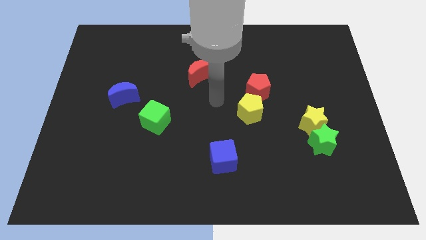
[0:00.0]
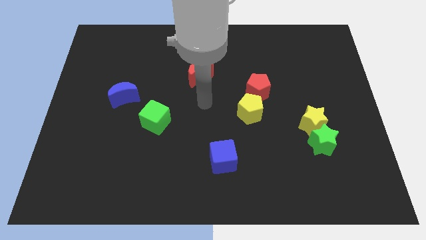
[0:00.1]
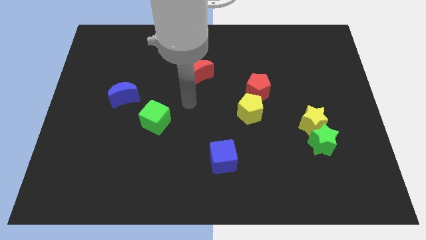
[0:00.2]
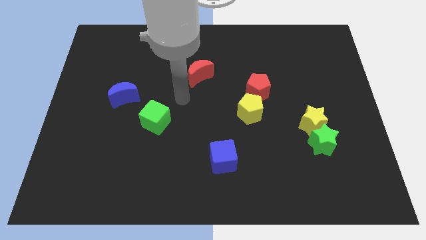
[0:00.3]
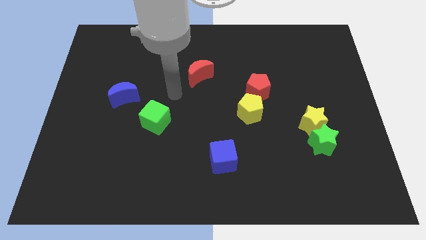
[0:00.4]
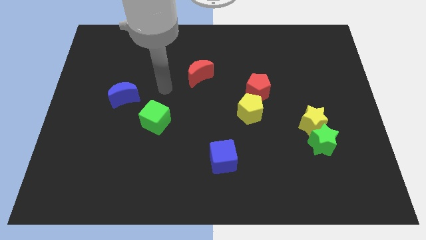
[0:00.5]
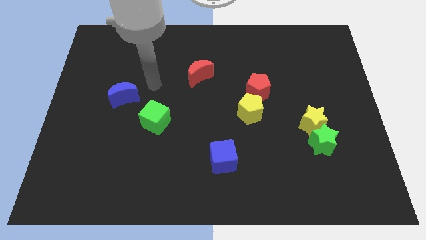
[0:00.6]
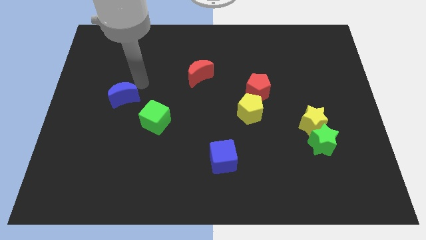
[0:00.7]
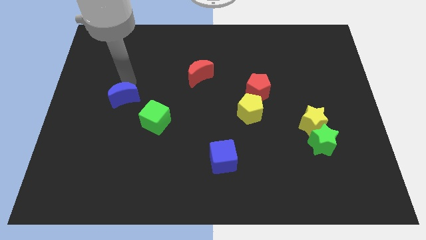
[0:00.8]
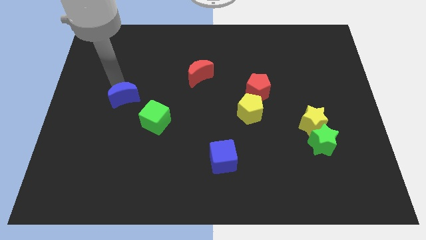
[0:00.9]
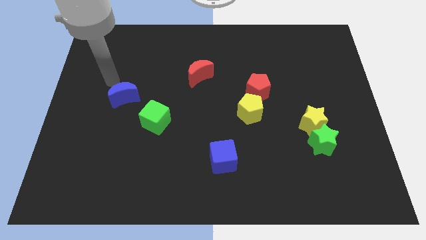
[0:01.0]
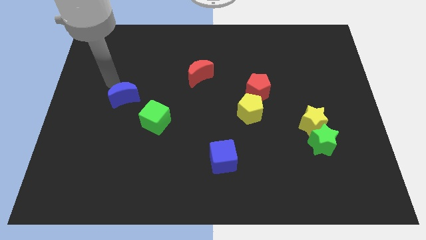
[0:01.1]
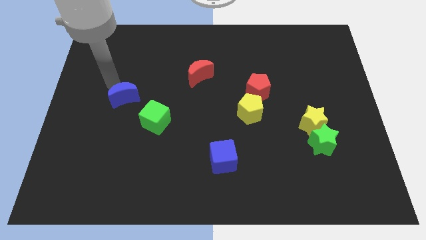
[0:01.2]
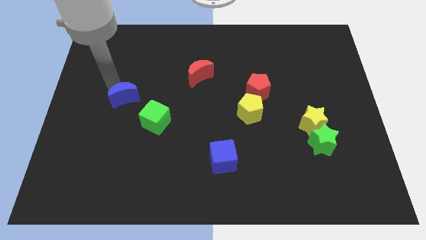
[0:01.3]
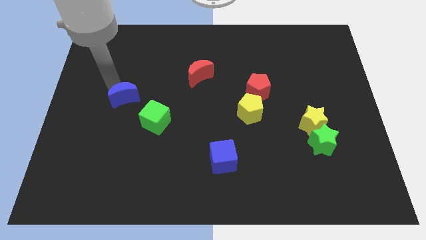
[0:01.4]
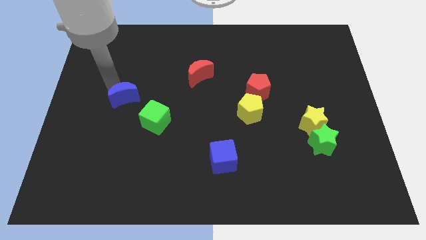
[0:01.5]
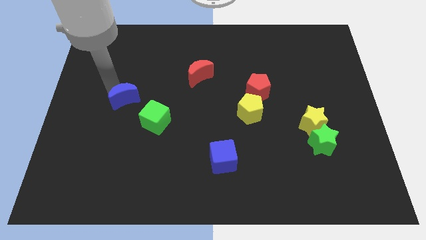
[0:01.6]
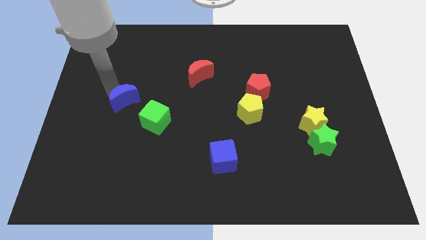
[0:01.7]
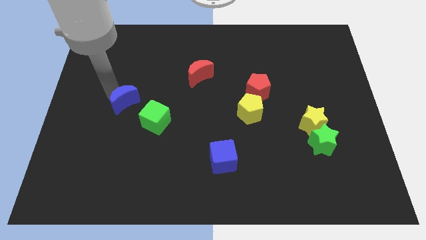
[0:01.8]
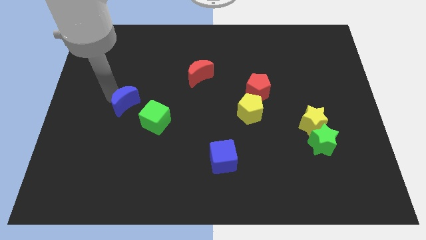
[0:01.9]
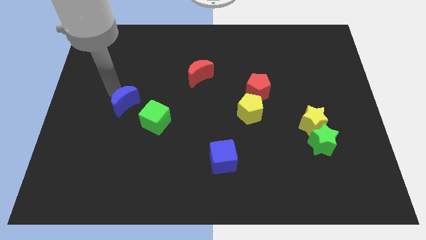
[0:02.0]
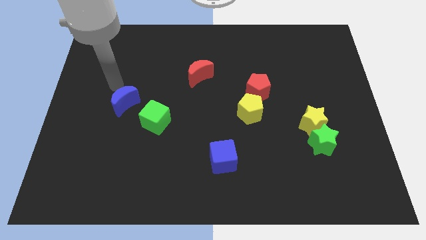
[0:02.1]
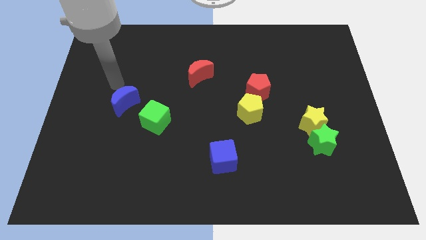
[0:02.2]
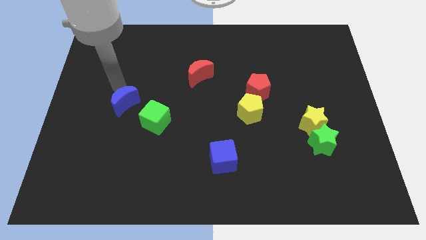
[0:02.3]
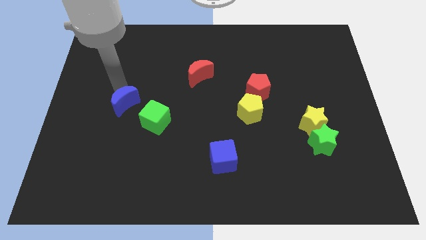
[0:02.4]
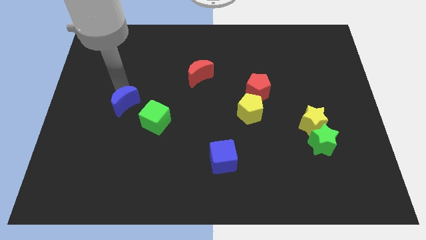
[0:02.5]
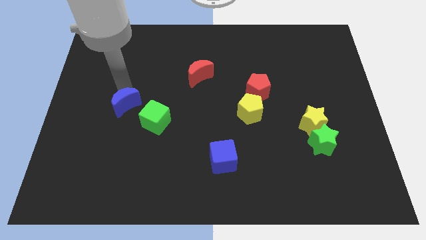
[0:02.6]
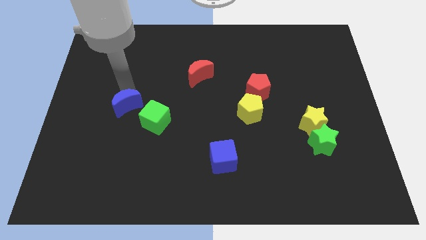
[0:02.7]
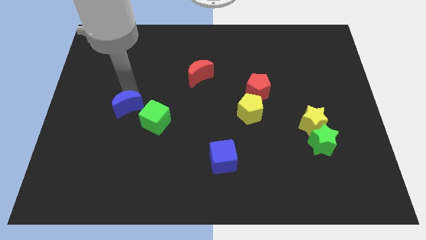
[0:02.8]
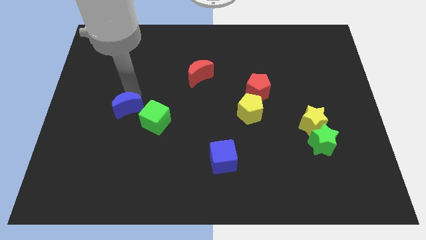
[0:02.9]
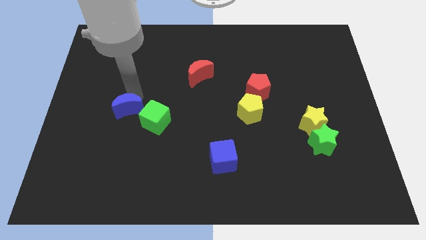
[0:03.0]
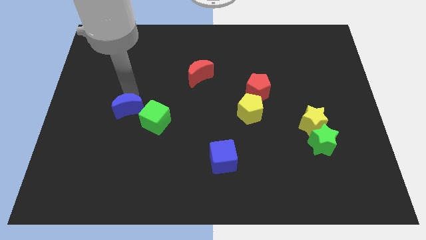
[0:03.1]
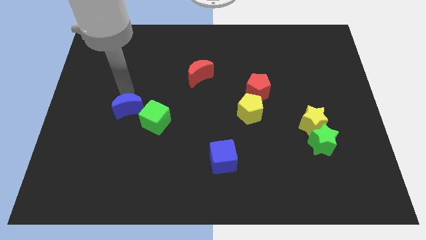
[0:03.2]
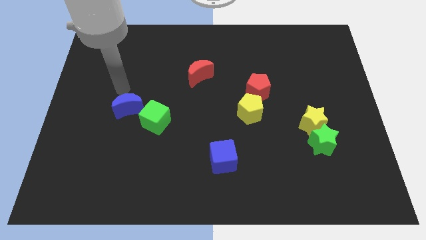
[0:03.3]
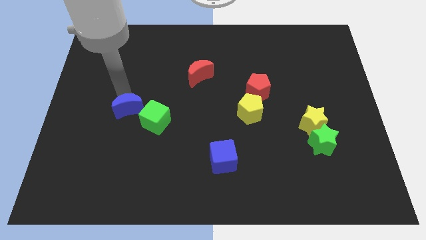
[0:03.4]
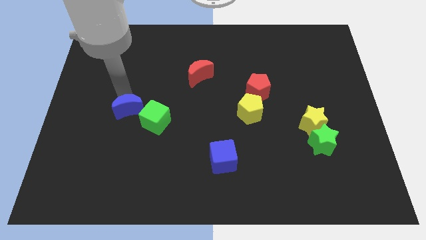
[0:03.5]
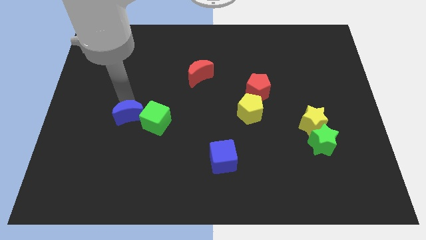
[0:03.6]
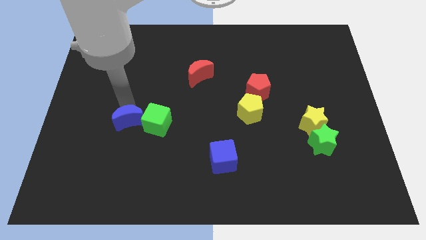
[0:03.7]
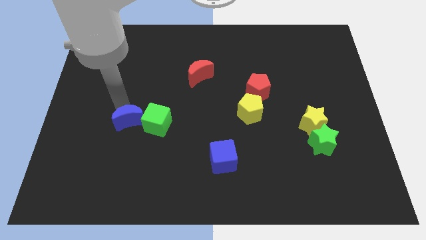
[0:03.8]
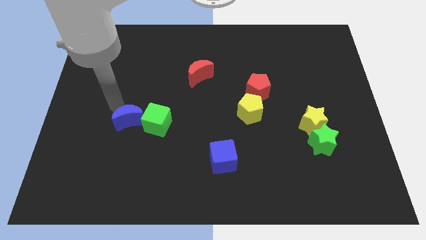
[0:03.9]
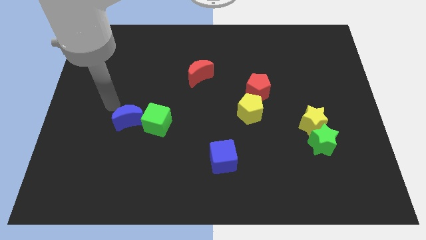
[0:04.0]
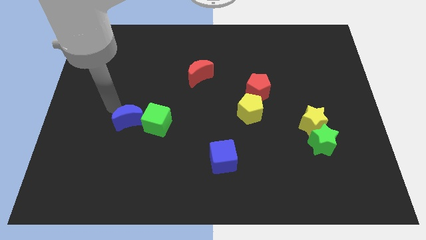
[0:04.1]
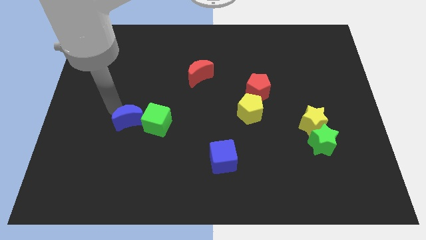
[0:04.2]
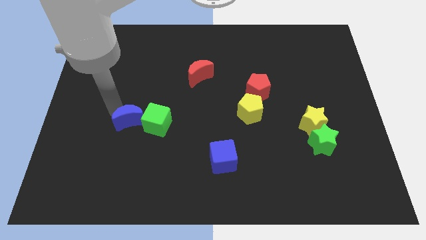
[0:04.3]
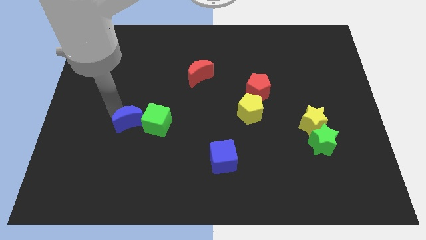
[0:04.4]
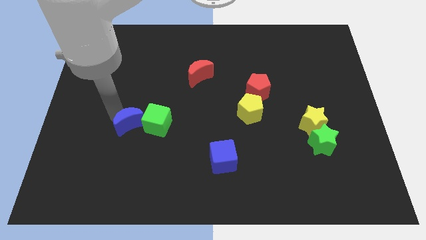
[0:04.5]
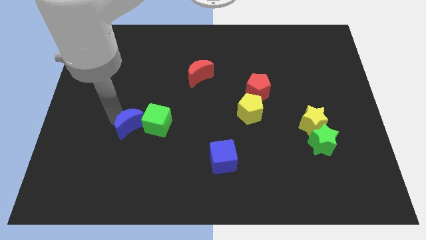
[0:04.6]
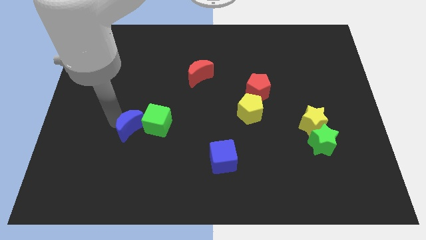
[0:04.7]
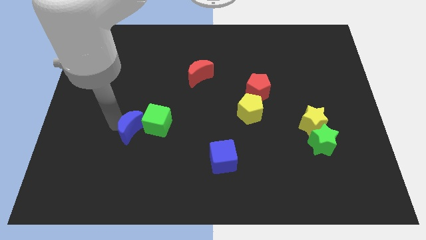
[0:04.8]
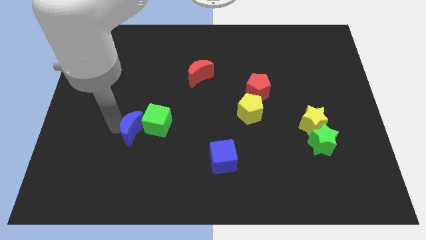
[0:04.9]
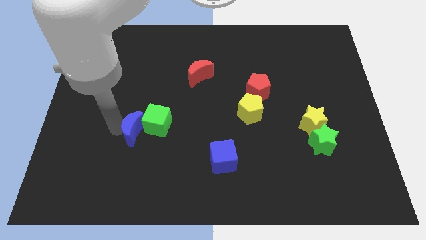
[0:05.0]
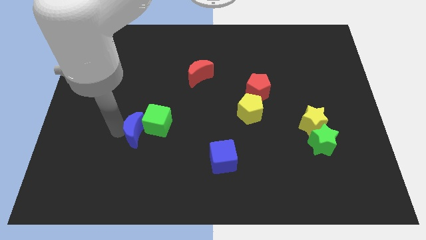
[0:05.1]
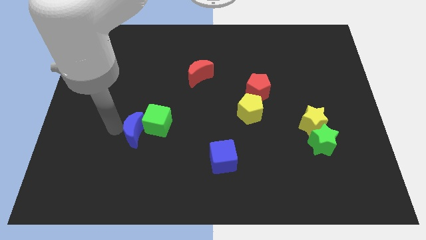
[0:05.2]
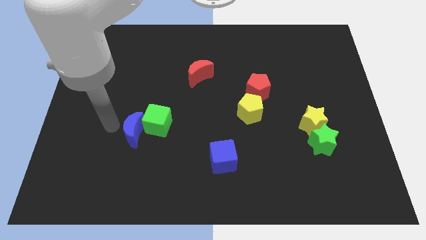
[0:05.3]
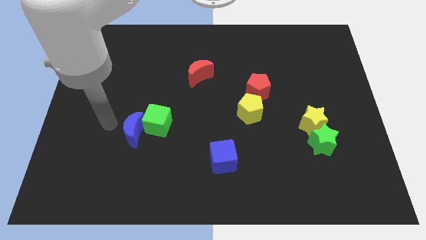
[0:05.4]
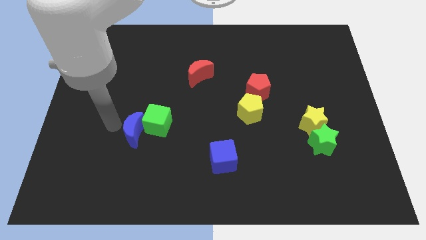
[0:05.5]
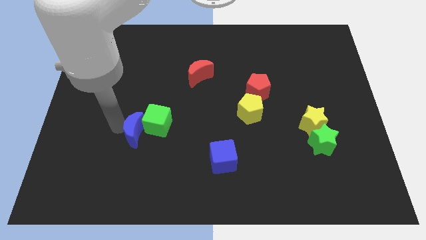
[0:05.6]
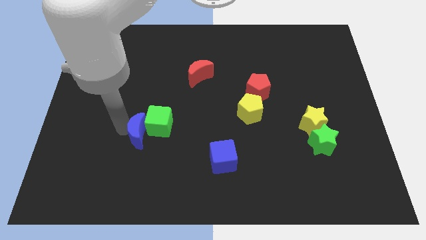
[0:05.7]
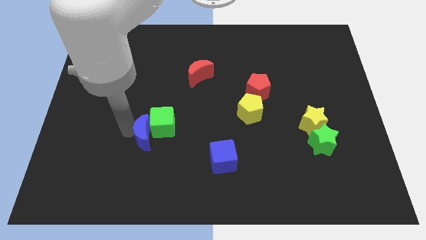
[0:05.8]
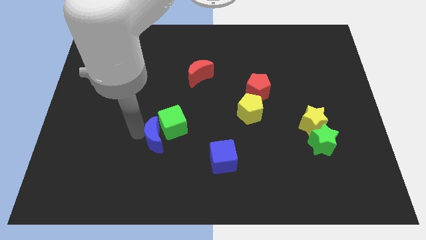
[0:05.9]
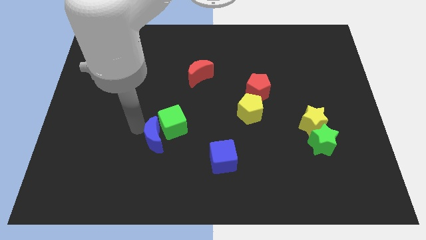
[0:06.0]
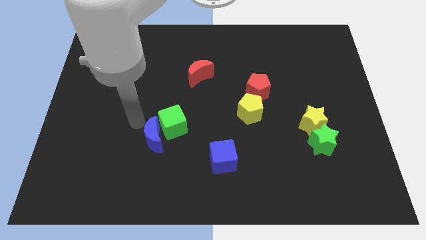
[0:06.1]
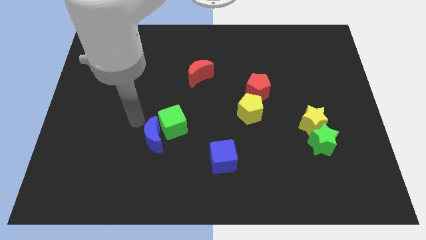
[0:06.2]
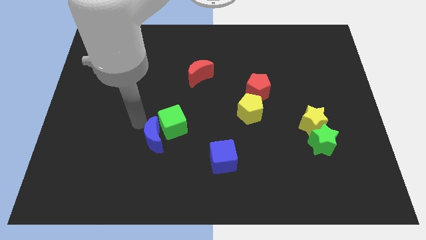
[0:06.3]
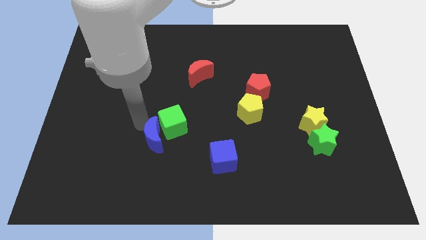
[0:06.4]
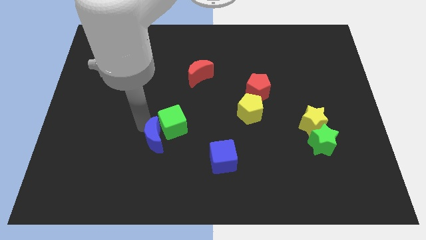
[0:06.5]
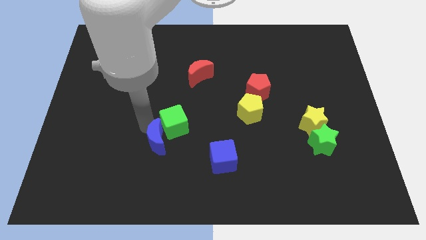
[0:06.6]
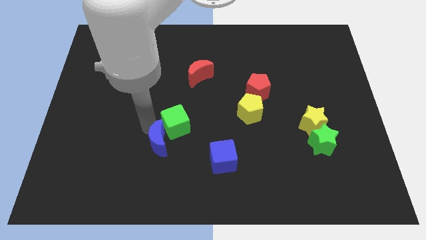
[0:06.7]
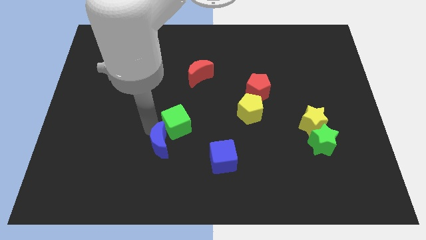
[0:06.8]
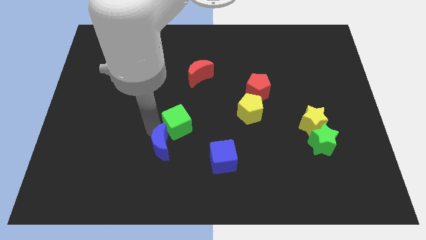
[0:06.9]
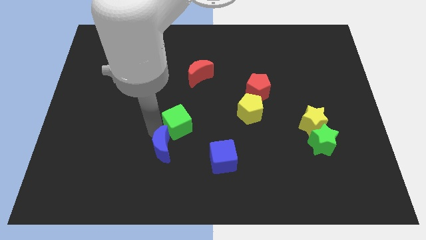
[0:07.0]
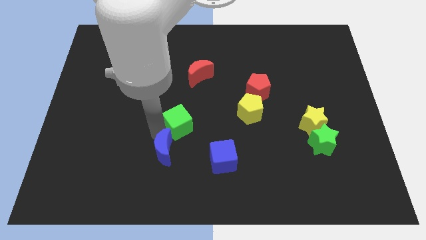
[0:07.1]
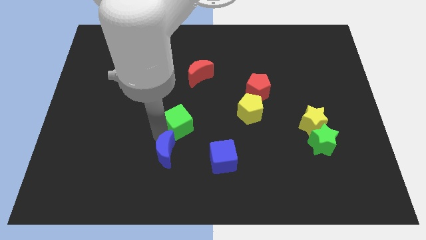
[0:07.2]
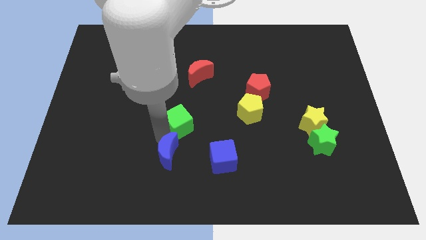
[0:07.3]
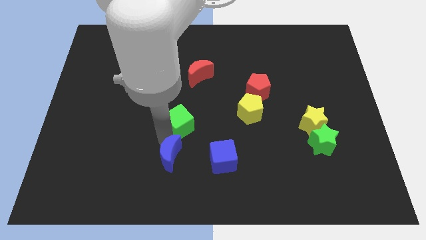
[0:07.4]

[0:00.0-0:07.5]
push the blue moon diagonally downwards and to the right

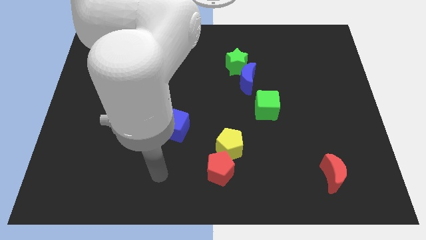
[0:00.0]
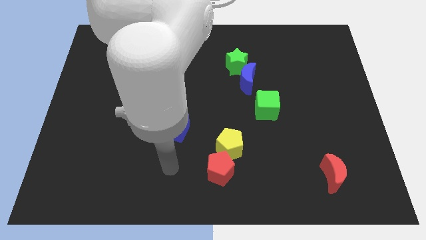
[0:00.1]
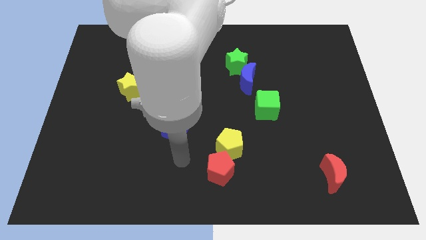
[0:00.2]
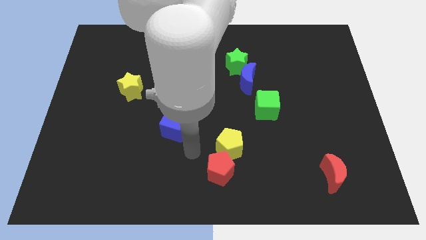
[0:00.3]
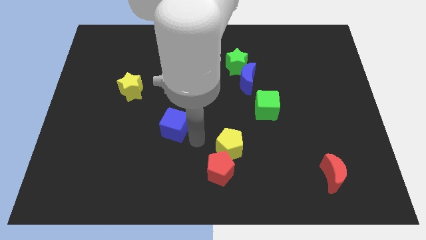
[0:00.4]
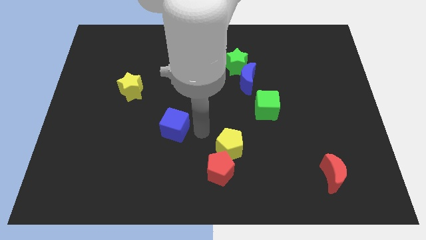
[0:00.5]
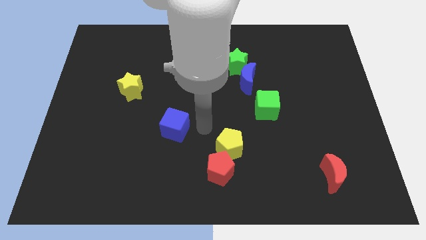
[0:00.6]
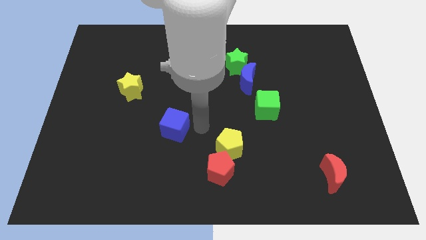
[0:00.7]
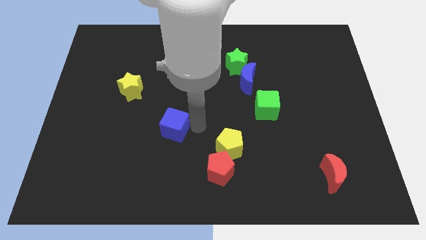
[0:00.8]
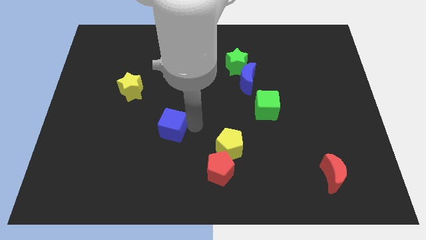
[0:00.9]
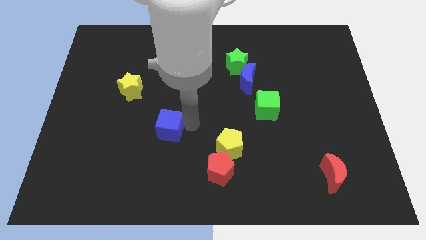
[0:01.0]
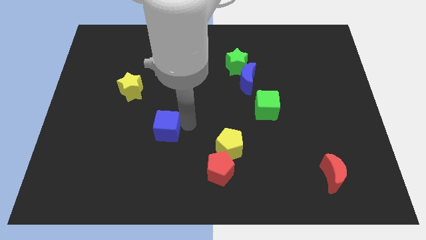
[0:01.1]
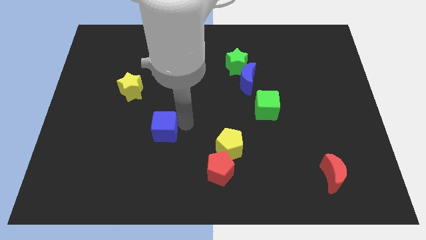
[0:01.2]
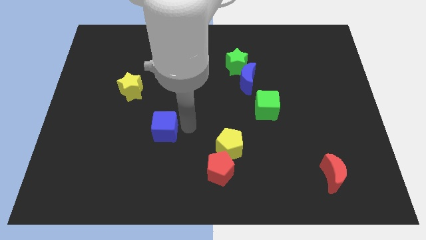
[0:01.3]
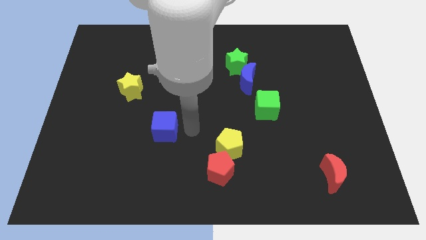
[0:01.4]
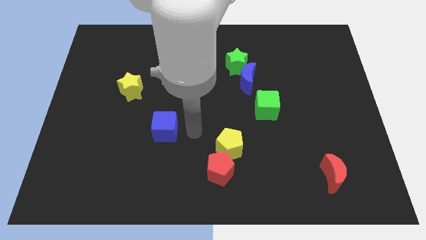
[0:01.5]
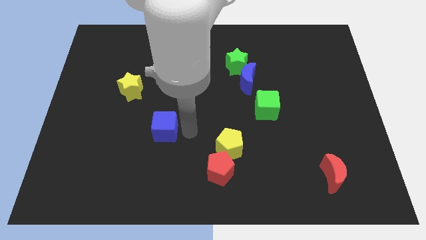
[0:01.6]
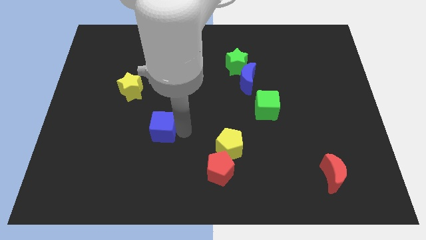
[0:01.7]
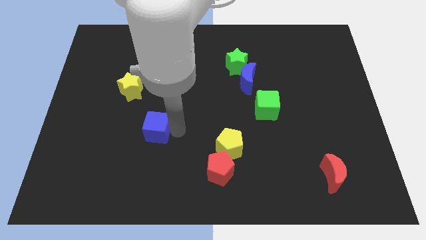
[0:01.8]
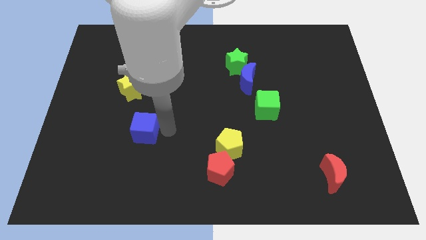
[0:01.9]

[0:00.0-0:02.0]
slide the blue cube to the left somewhat
